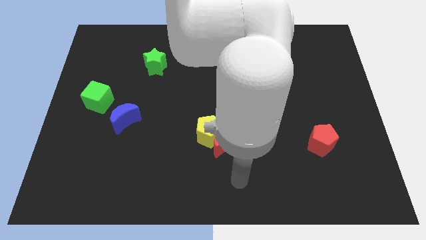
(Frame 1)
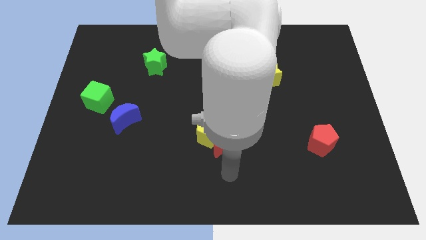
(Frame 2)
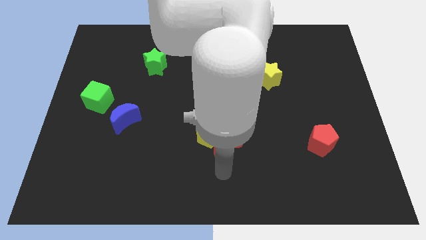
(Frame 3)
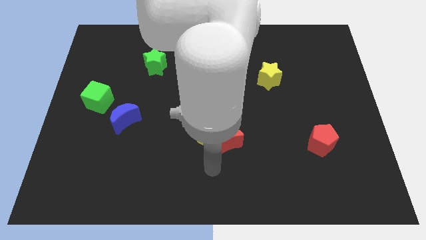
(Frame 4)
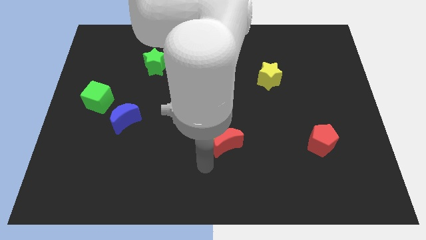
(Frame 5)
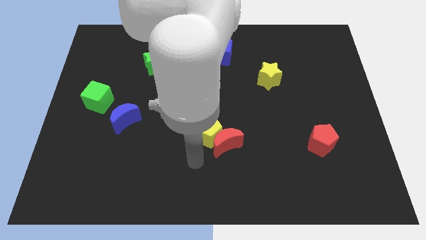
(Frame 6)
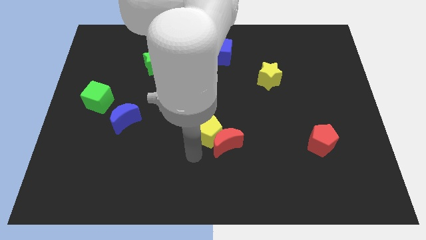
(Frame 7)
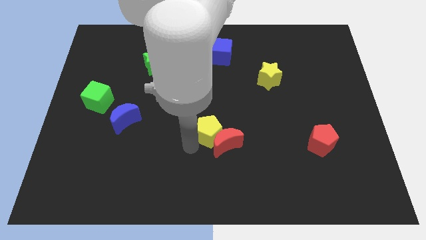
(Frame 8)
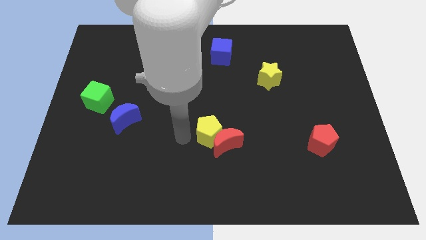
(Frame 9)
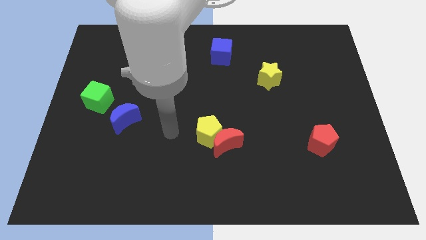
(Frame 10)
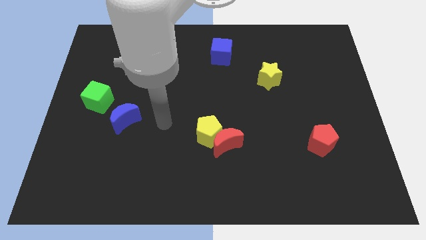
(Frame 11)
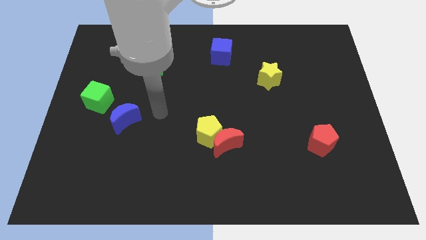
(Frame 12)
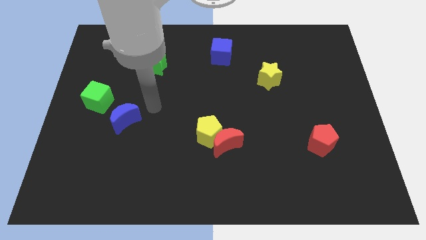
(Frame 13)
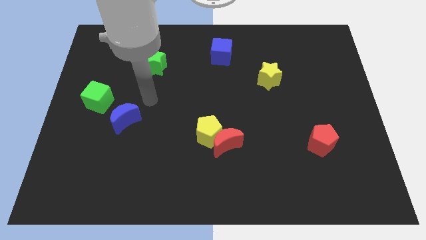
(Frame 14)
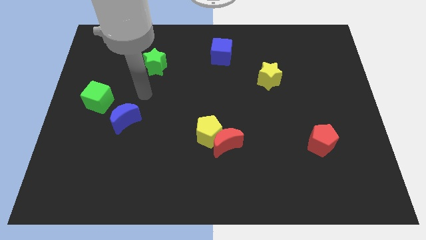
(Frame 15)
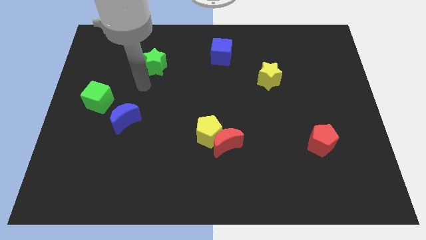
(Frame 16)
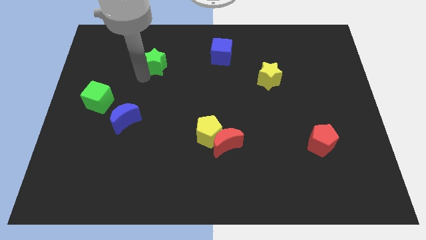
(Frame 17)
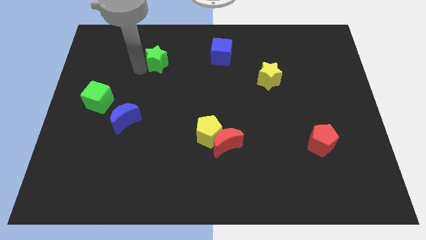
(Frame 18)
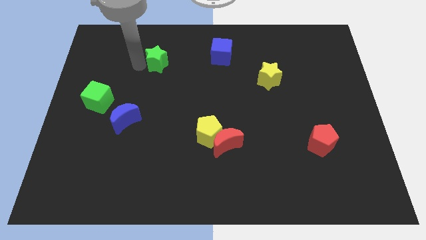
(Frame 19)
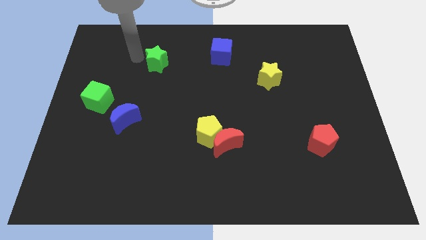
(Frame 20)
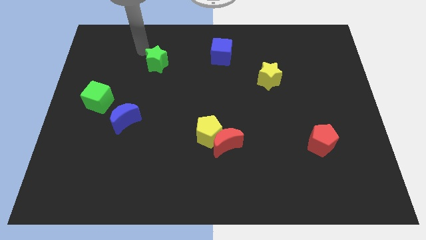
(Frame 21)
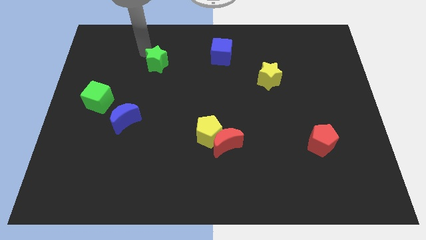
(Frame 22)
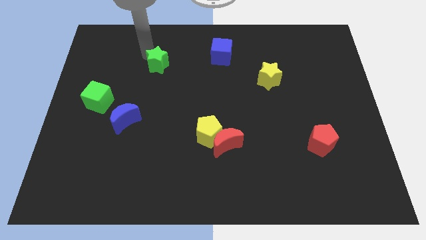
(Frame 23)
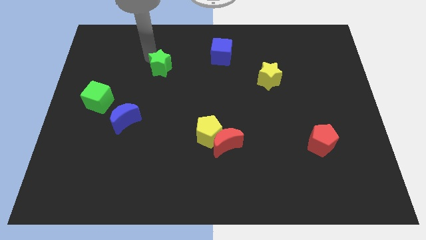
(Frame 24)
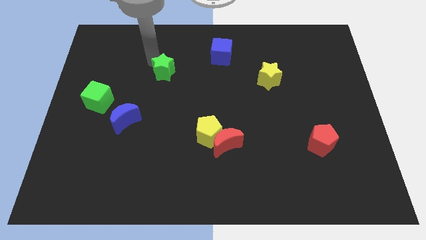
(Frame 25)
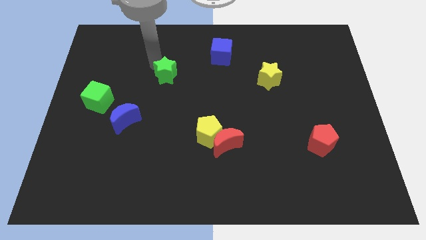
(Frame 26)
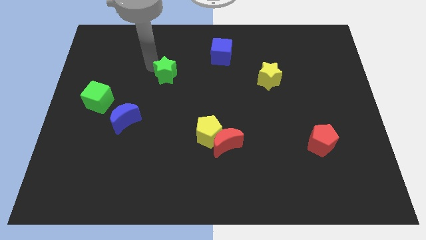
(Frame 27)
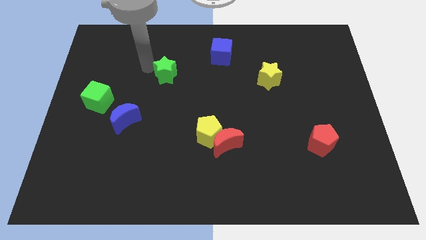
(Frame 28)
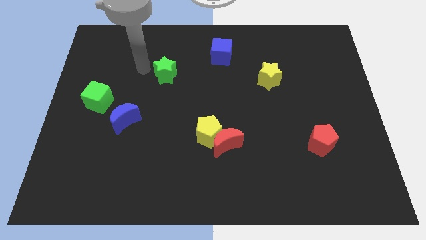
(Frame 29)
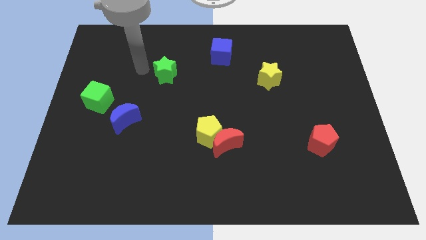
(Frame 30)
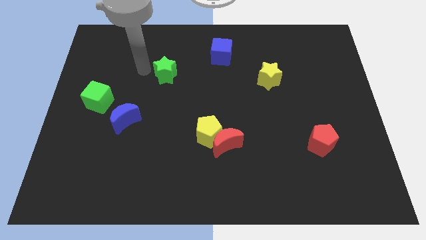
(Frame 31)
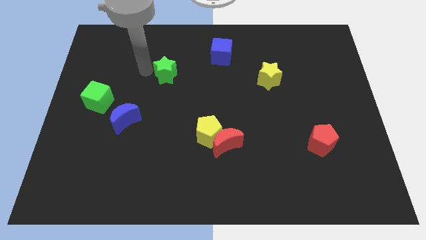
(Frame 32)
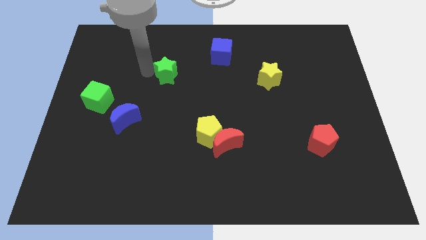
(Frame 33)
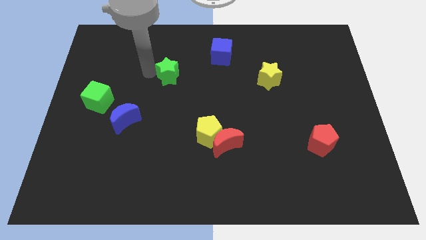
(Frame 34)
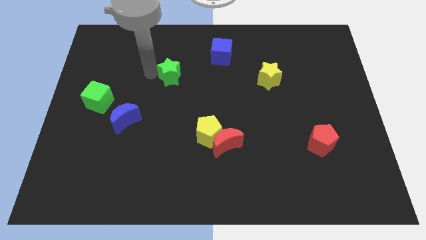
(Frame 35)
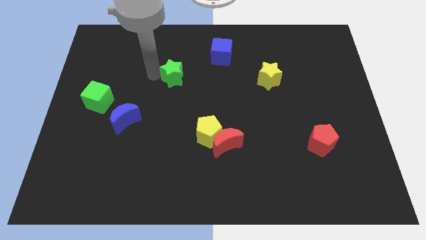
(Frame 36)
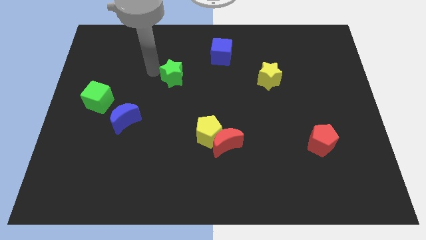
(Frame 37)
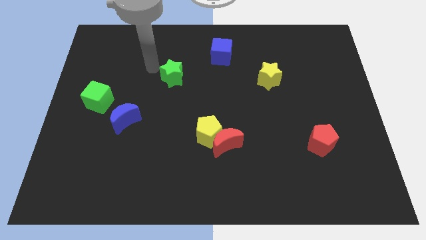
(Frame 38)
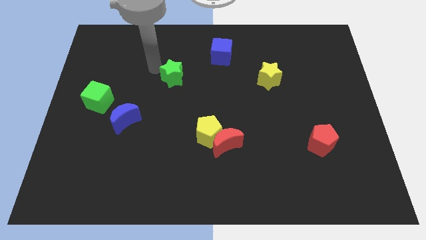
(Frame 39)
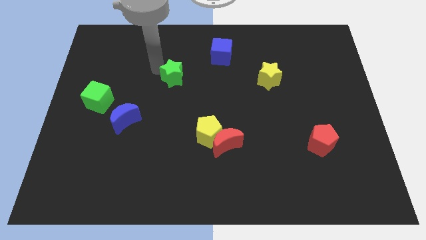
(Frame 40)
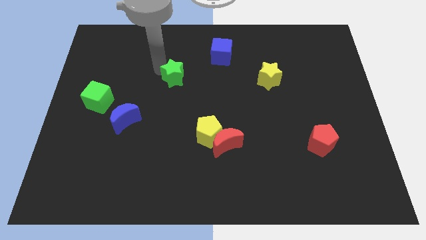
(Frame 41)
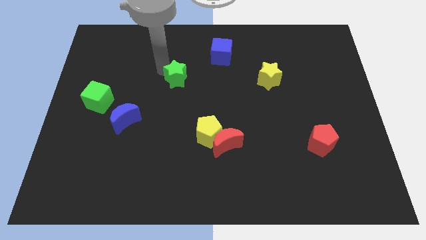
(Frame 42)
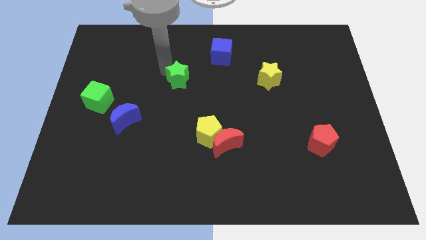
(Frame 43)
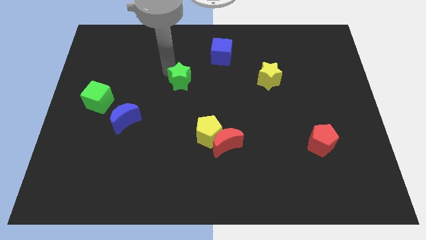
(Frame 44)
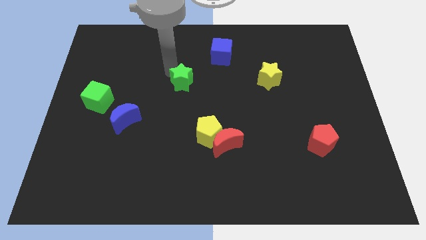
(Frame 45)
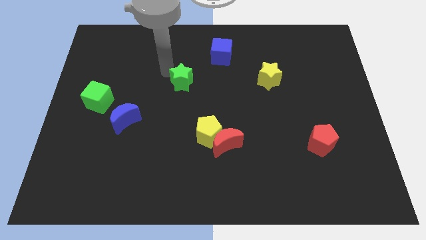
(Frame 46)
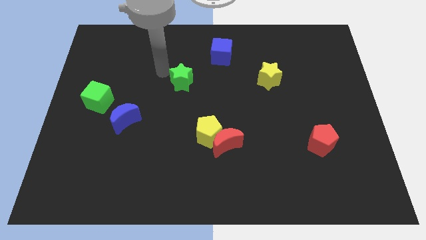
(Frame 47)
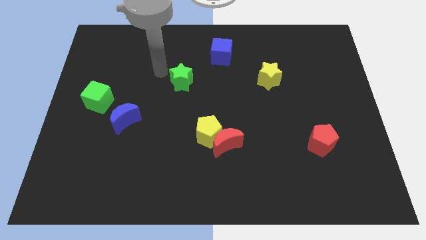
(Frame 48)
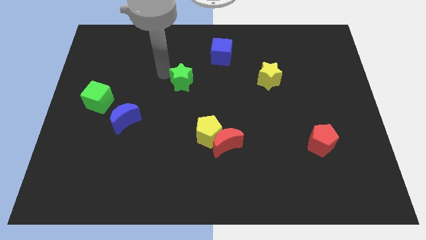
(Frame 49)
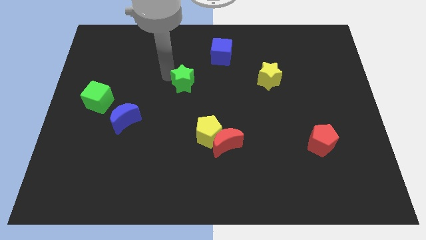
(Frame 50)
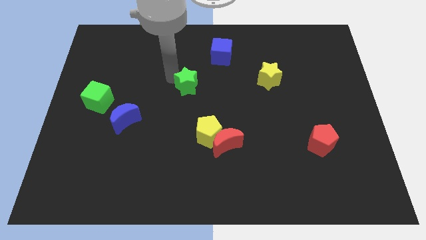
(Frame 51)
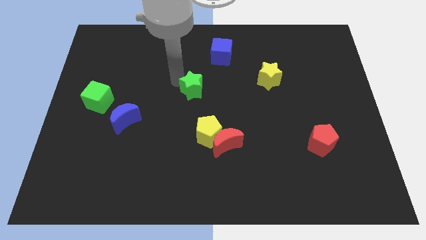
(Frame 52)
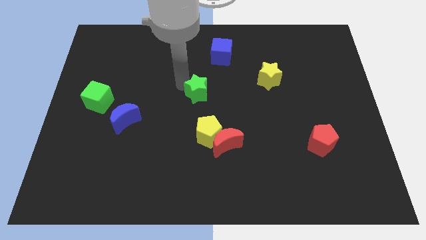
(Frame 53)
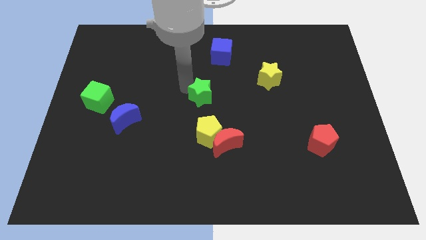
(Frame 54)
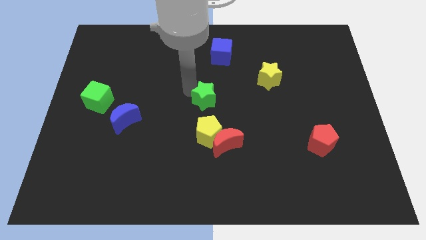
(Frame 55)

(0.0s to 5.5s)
move the green star above the red moon

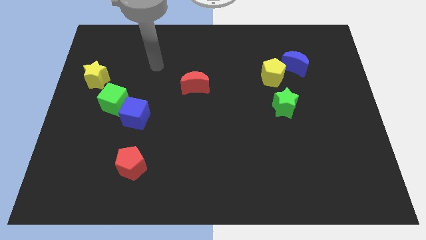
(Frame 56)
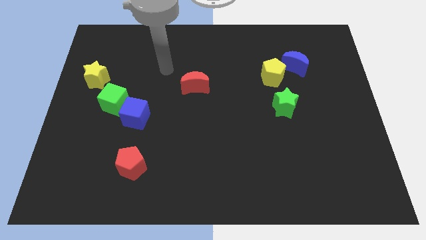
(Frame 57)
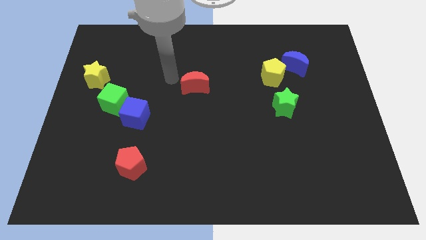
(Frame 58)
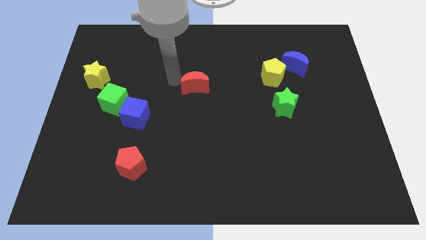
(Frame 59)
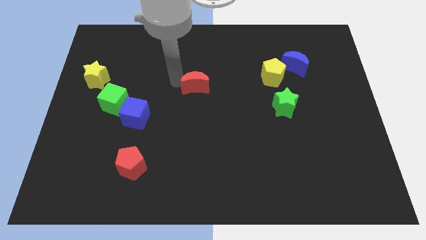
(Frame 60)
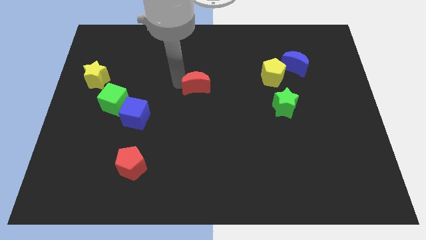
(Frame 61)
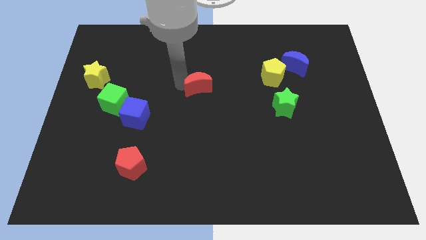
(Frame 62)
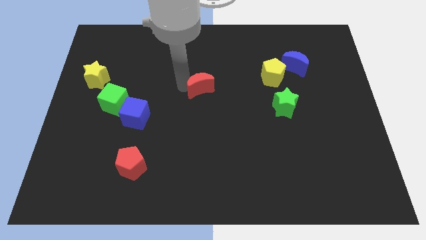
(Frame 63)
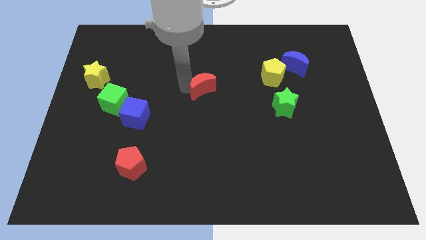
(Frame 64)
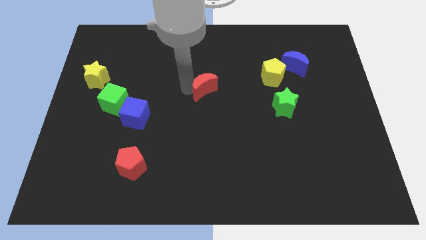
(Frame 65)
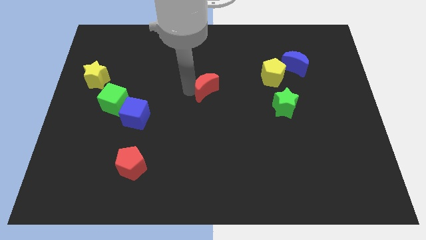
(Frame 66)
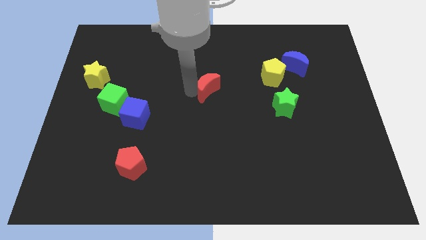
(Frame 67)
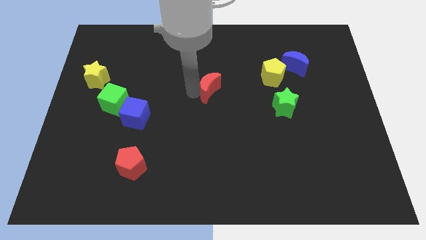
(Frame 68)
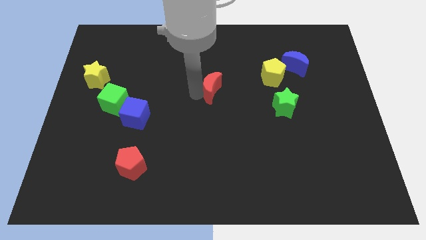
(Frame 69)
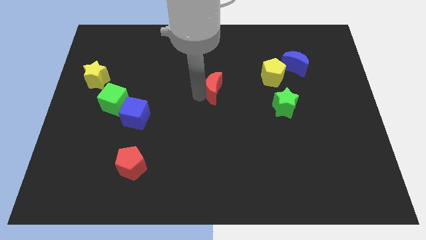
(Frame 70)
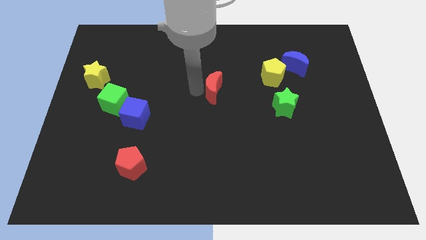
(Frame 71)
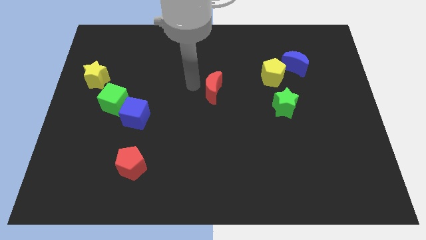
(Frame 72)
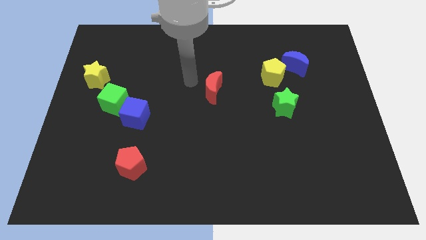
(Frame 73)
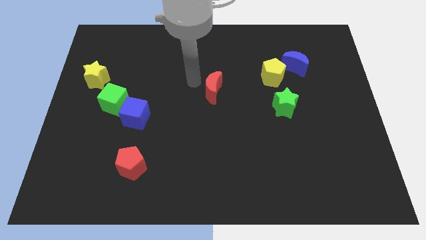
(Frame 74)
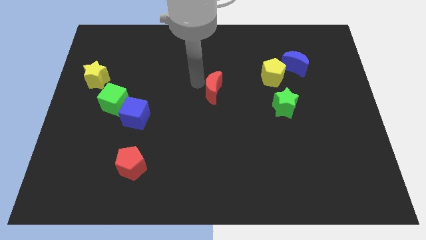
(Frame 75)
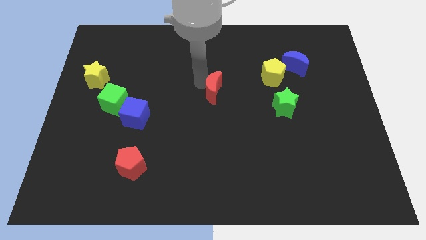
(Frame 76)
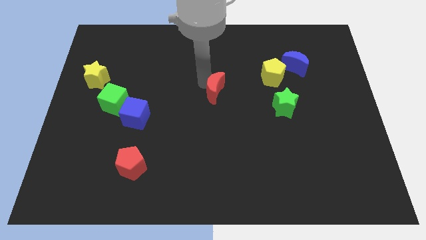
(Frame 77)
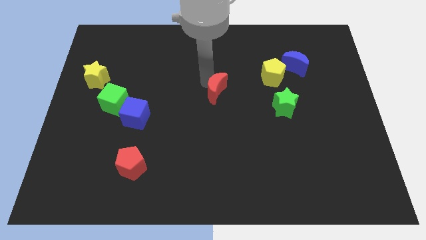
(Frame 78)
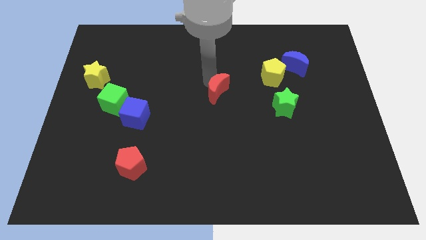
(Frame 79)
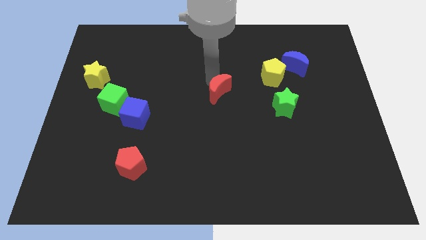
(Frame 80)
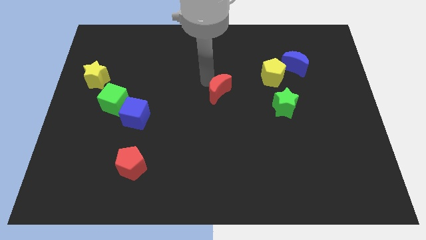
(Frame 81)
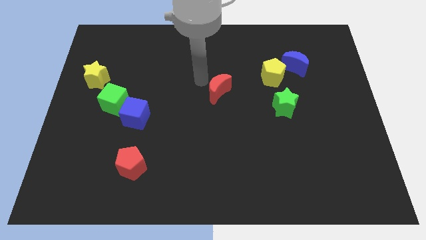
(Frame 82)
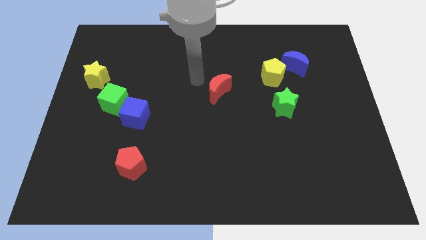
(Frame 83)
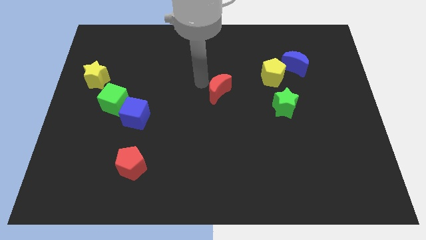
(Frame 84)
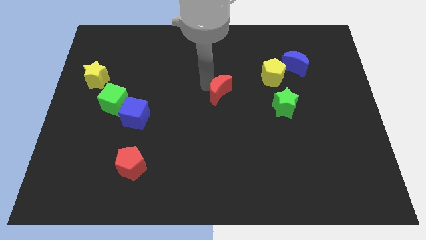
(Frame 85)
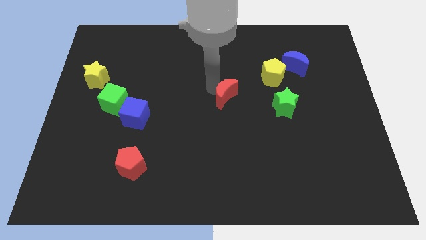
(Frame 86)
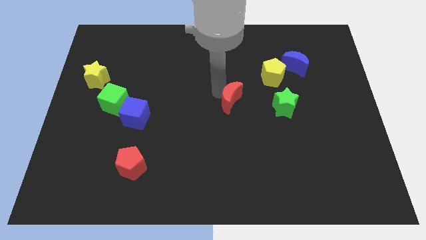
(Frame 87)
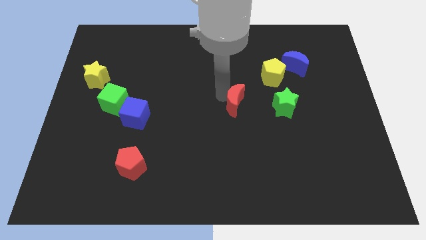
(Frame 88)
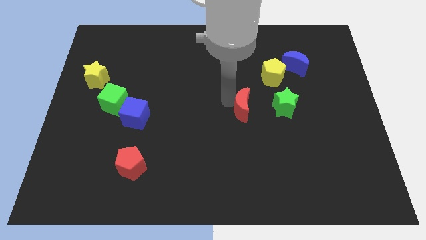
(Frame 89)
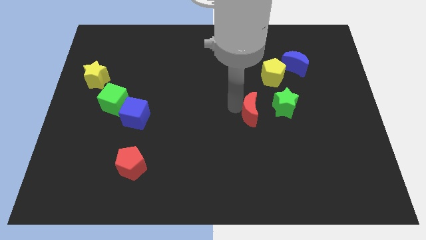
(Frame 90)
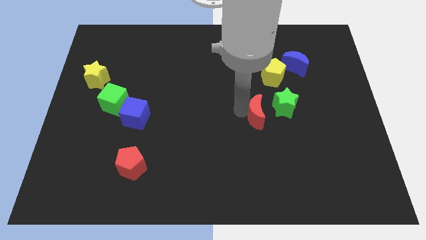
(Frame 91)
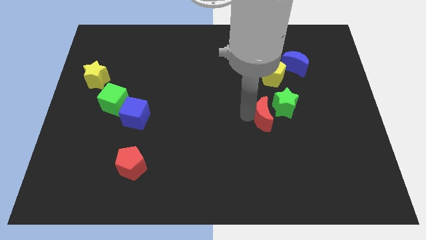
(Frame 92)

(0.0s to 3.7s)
slide the red moon below the yellow pentagon
